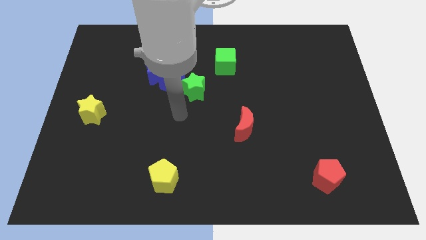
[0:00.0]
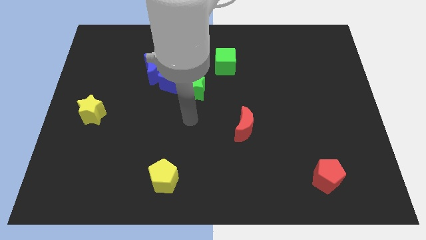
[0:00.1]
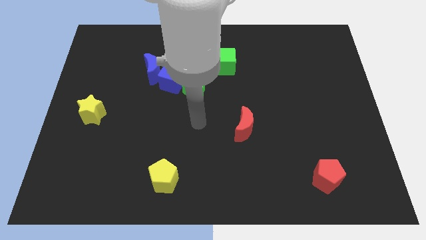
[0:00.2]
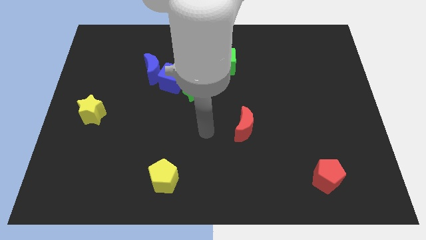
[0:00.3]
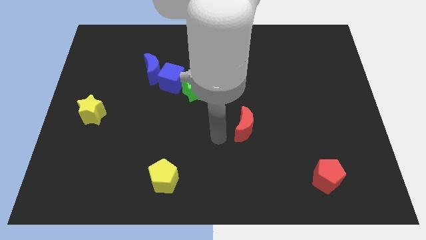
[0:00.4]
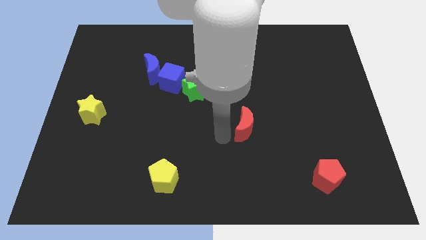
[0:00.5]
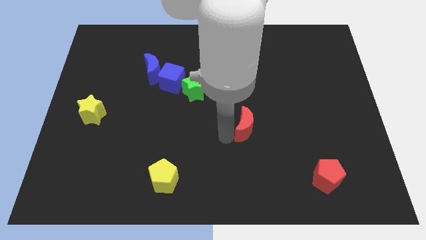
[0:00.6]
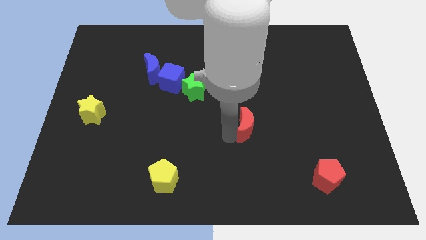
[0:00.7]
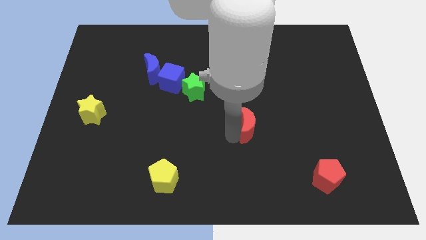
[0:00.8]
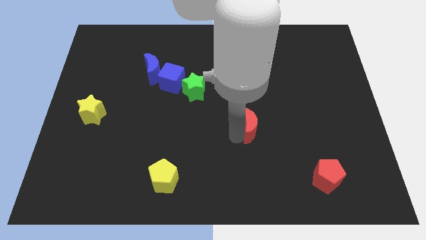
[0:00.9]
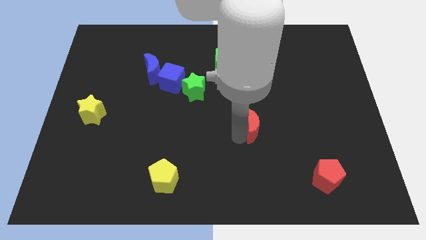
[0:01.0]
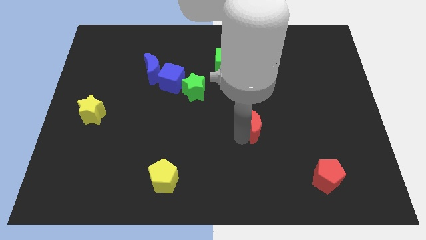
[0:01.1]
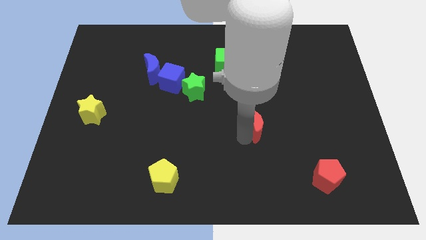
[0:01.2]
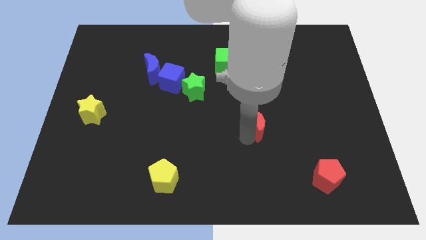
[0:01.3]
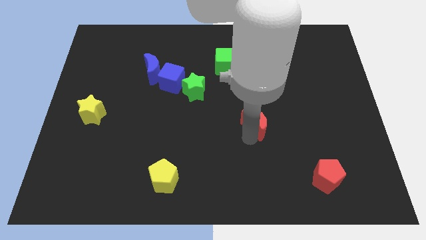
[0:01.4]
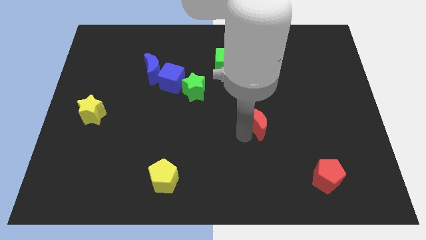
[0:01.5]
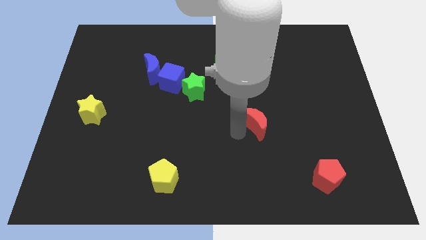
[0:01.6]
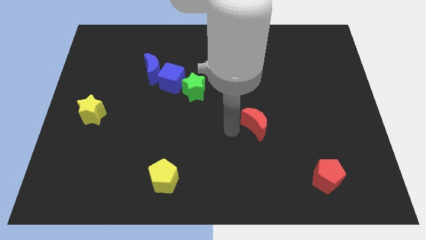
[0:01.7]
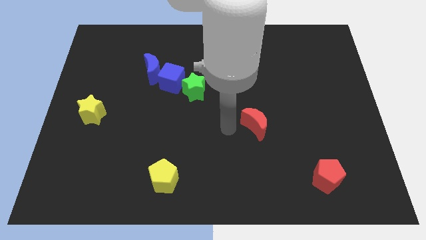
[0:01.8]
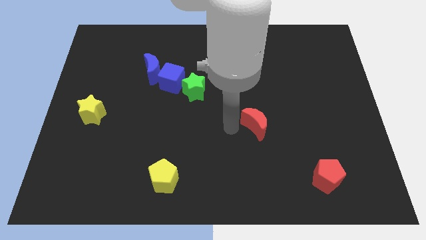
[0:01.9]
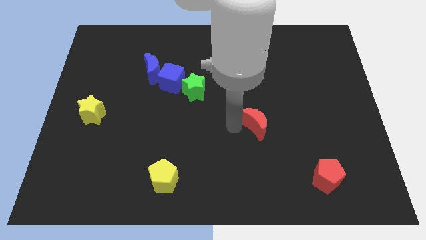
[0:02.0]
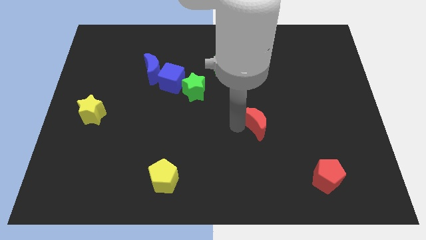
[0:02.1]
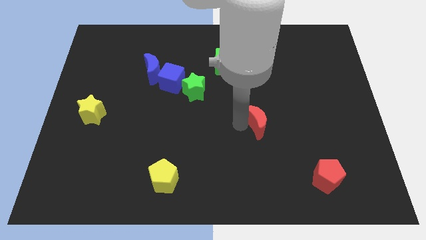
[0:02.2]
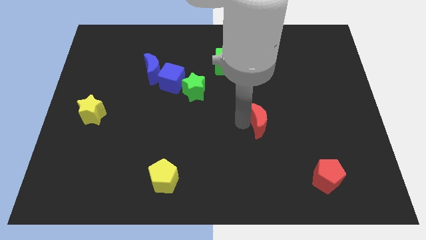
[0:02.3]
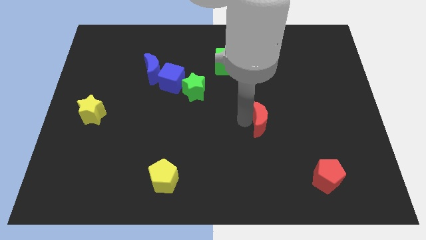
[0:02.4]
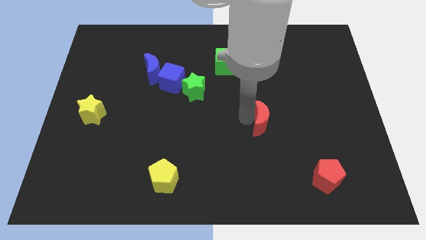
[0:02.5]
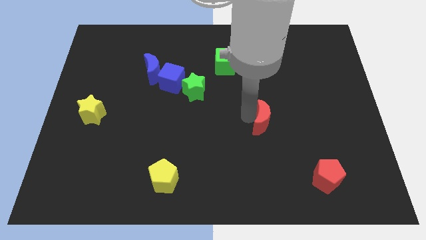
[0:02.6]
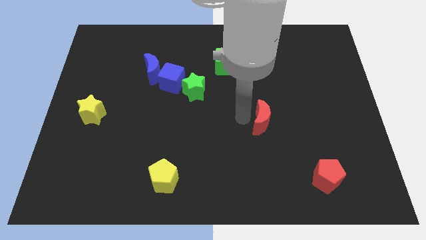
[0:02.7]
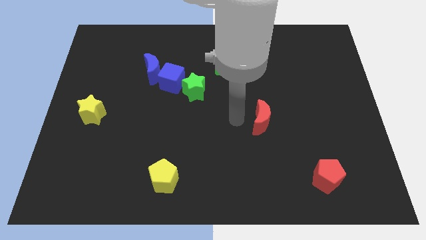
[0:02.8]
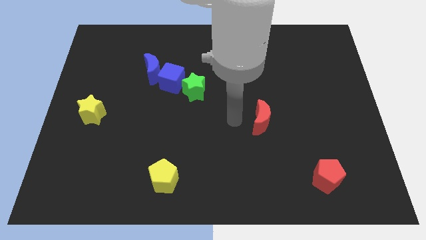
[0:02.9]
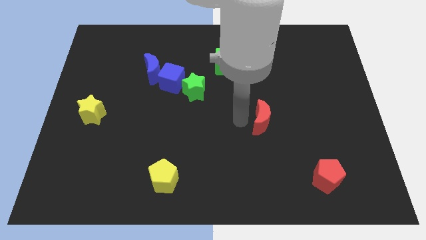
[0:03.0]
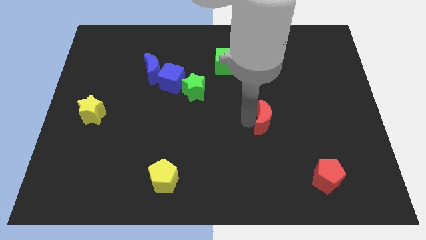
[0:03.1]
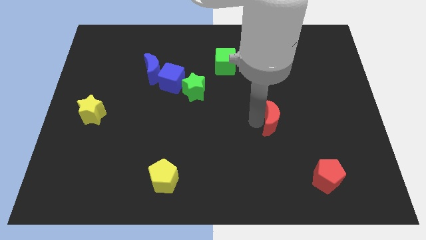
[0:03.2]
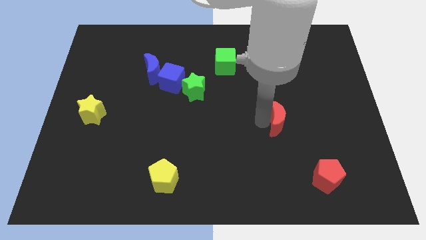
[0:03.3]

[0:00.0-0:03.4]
move the red moon a little right

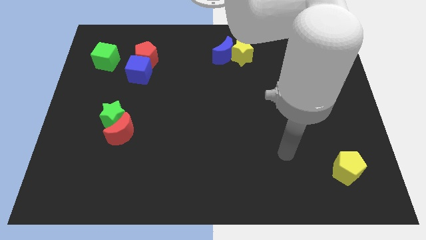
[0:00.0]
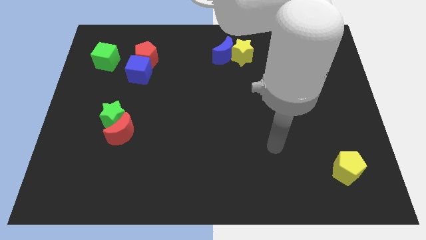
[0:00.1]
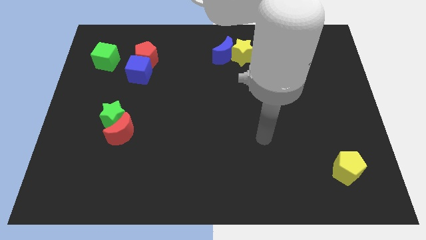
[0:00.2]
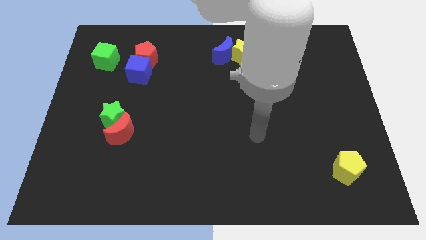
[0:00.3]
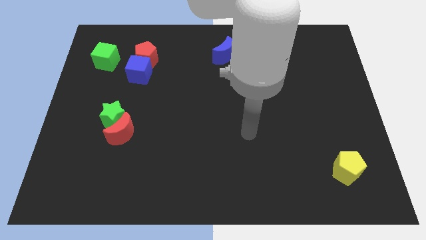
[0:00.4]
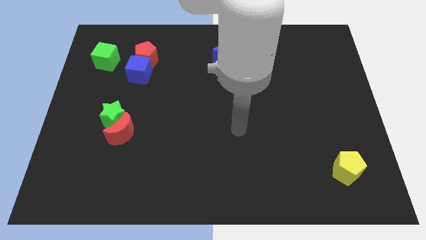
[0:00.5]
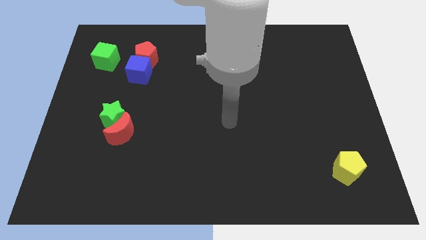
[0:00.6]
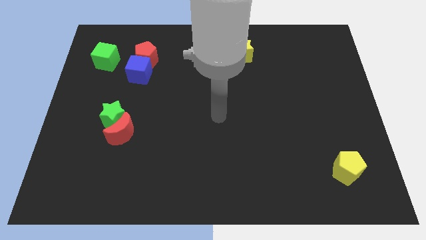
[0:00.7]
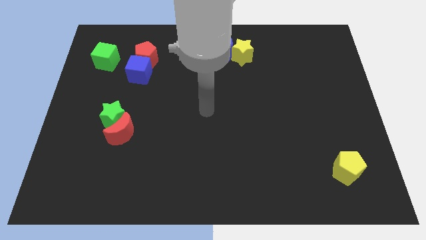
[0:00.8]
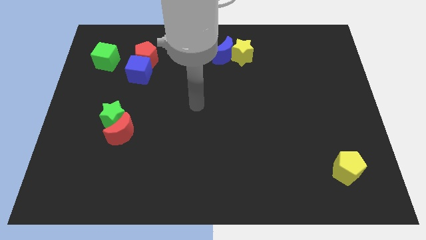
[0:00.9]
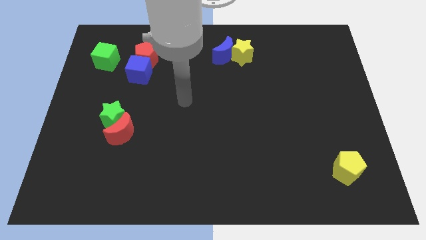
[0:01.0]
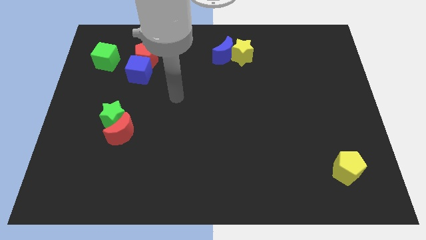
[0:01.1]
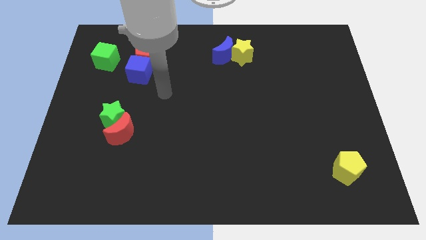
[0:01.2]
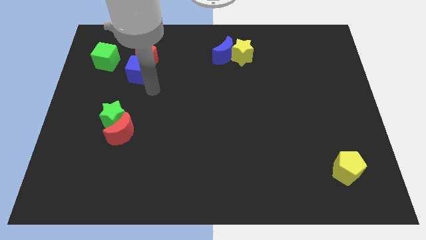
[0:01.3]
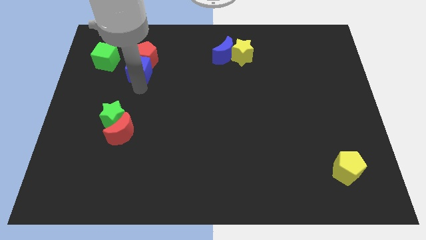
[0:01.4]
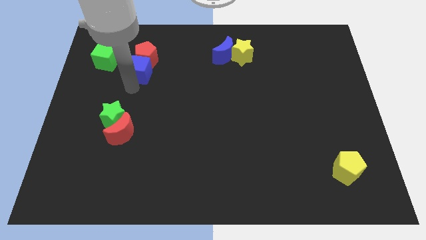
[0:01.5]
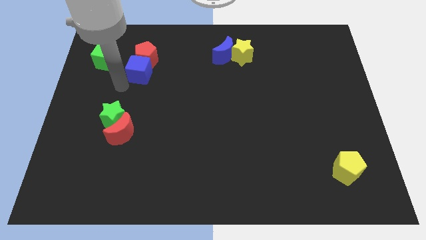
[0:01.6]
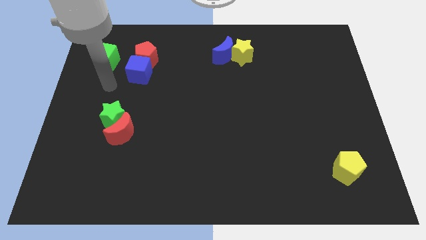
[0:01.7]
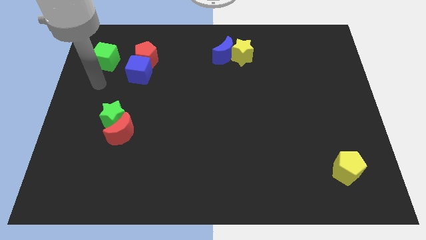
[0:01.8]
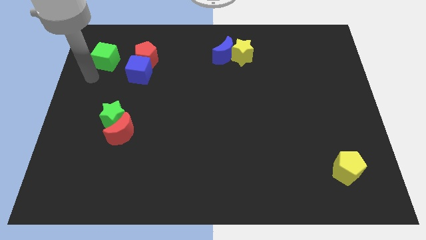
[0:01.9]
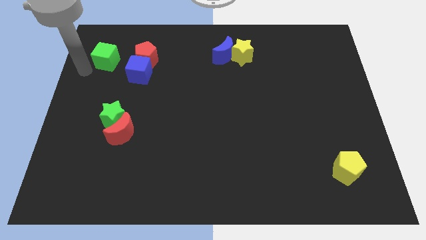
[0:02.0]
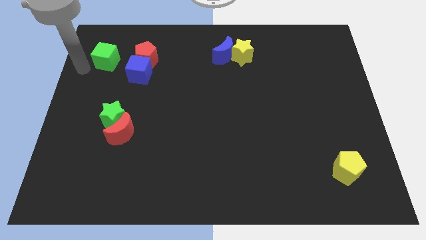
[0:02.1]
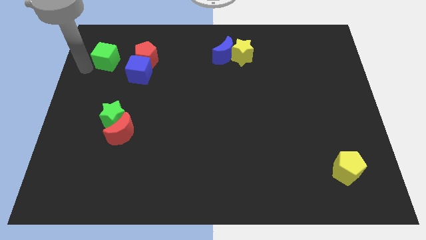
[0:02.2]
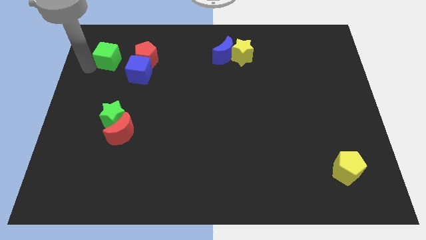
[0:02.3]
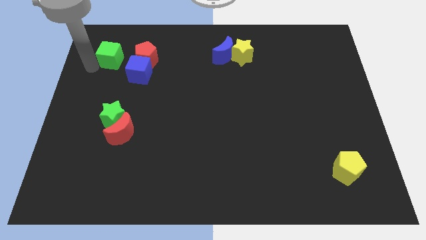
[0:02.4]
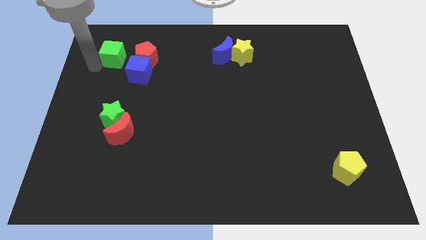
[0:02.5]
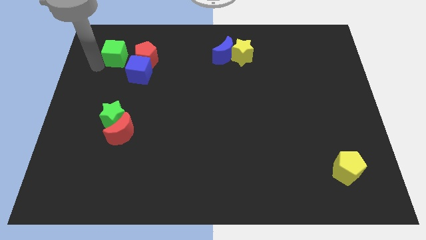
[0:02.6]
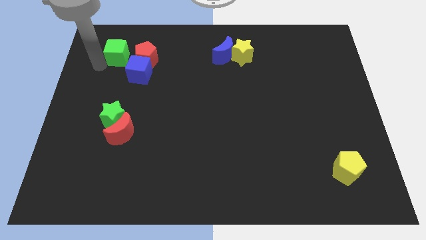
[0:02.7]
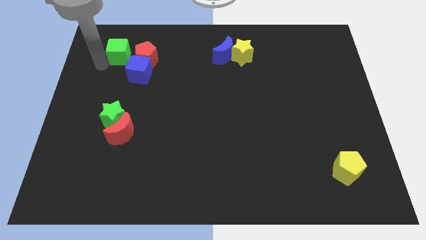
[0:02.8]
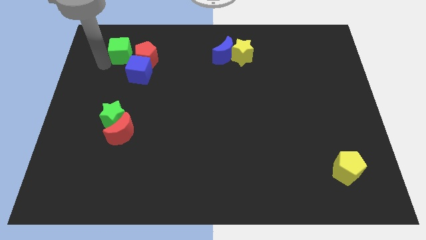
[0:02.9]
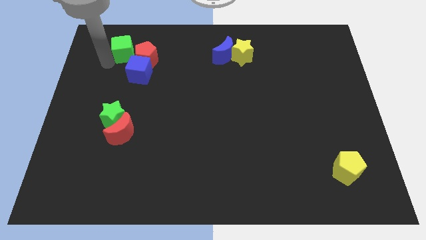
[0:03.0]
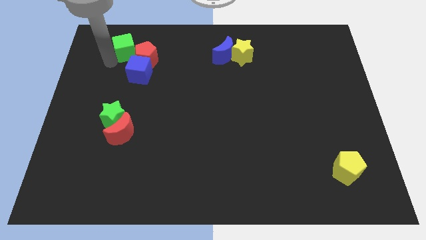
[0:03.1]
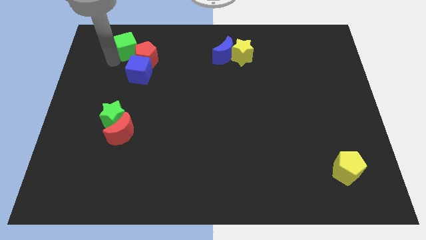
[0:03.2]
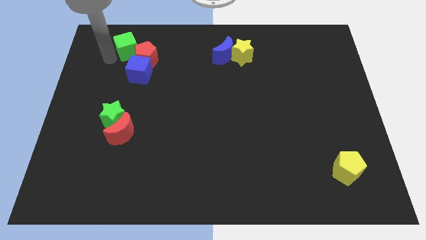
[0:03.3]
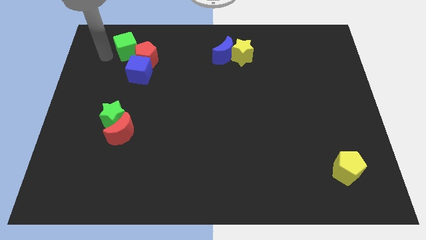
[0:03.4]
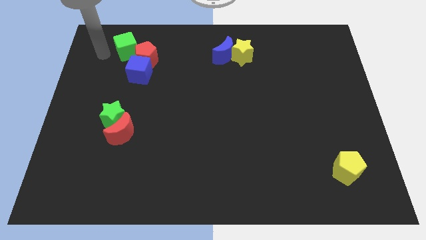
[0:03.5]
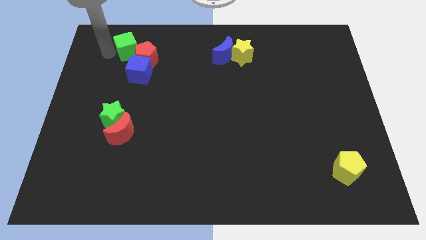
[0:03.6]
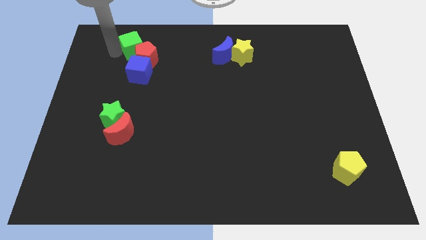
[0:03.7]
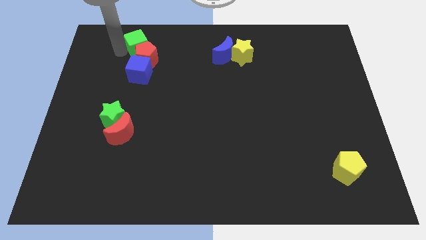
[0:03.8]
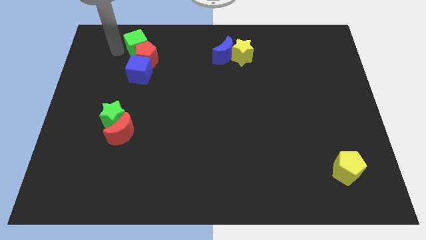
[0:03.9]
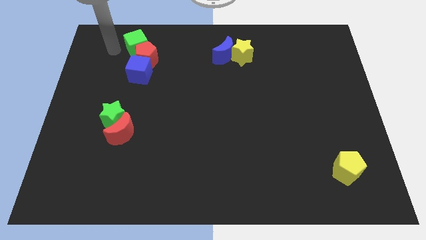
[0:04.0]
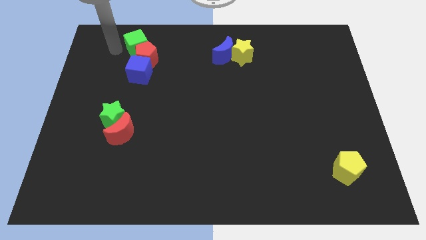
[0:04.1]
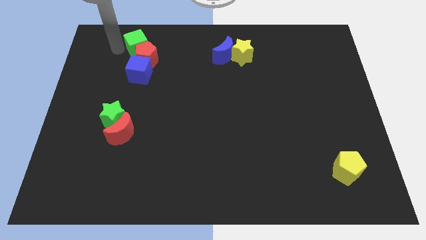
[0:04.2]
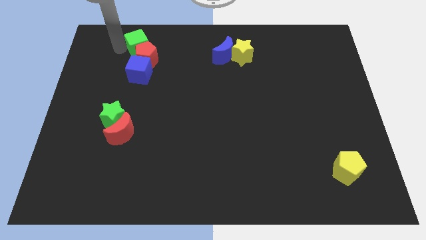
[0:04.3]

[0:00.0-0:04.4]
slightly slide the green cube right

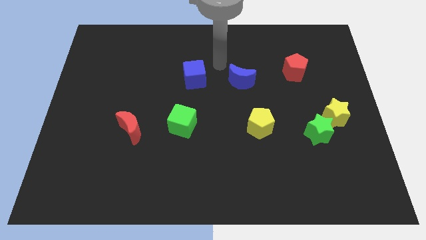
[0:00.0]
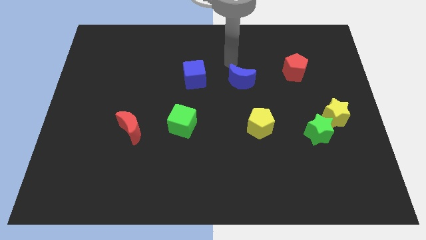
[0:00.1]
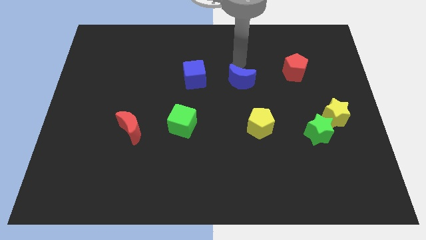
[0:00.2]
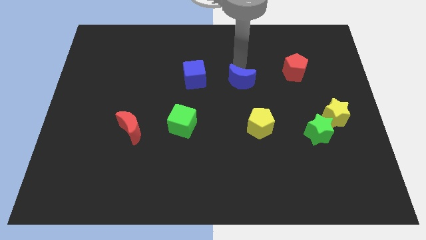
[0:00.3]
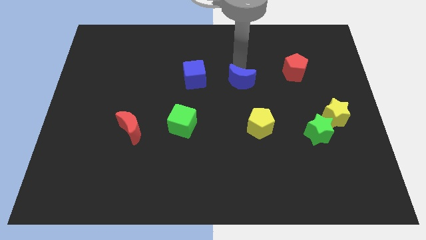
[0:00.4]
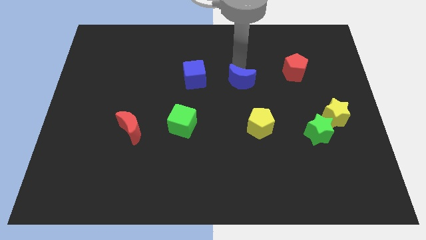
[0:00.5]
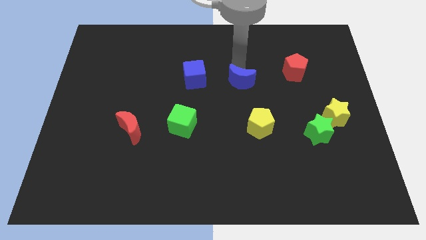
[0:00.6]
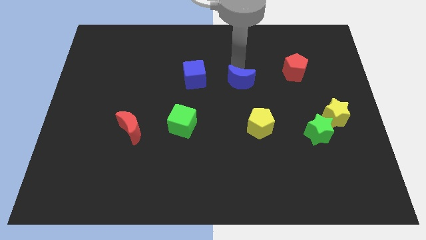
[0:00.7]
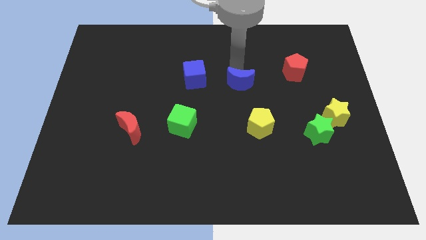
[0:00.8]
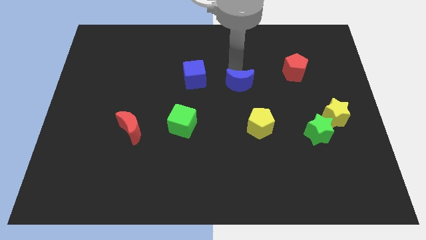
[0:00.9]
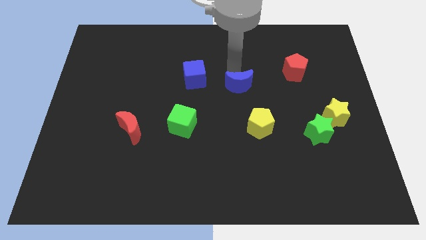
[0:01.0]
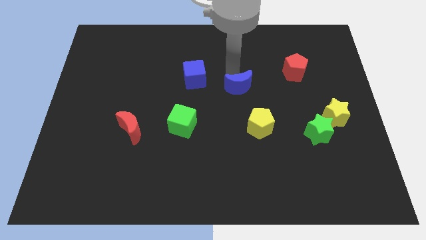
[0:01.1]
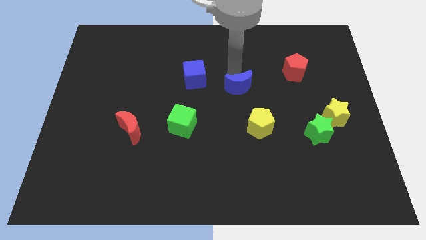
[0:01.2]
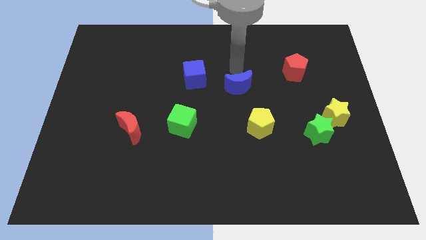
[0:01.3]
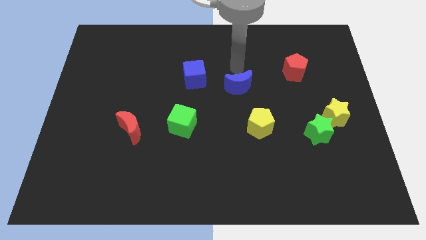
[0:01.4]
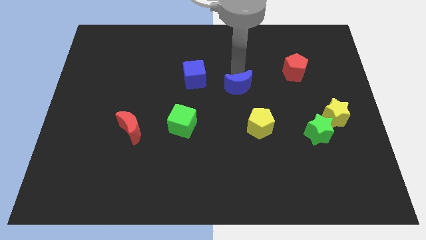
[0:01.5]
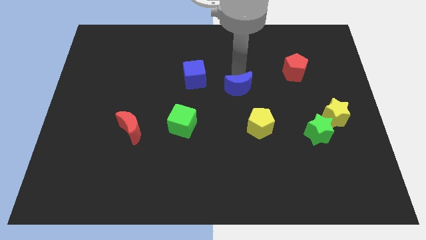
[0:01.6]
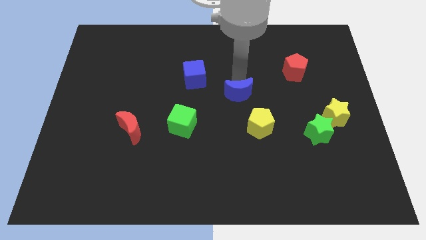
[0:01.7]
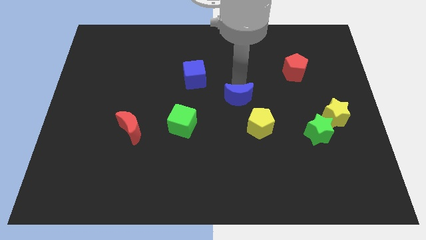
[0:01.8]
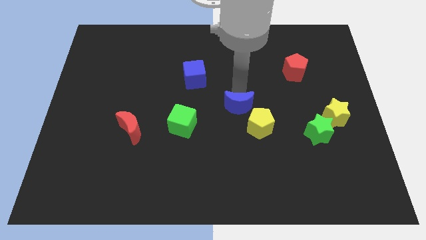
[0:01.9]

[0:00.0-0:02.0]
push the blue moon downwards somewhat
